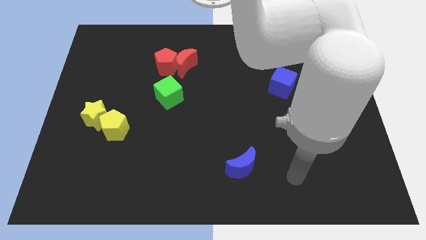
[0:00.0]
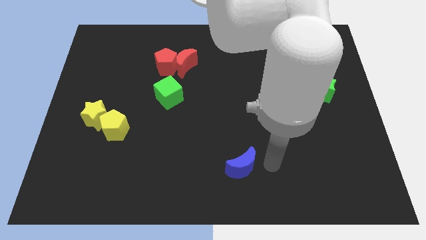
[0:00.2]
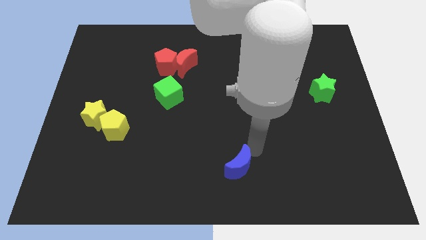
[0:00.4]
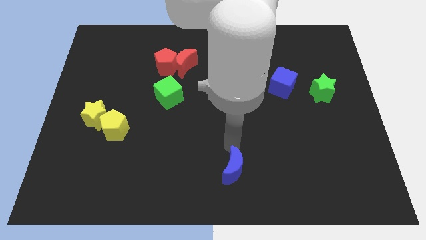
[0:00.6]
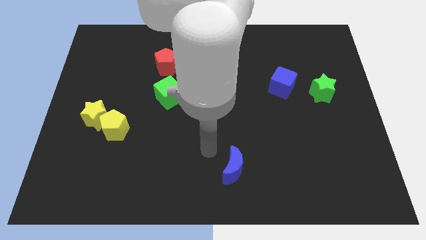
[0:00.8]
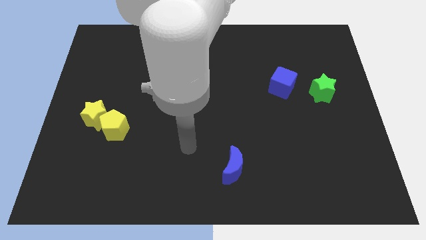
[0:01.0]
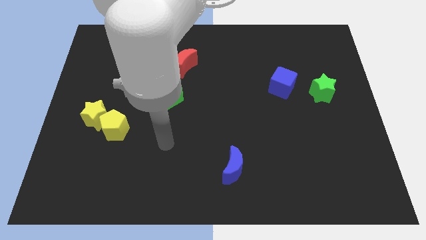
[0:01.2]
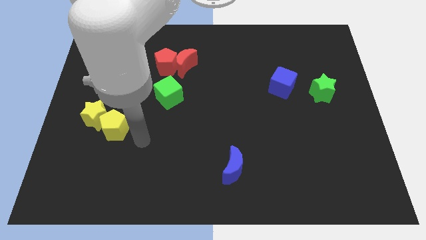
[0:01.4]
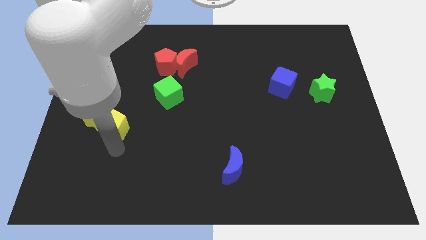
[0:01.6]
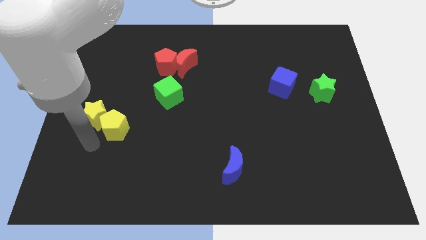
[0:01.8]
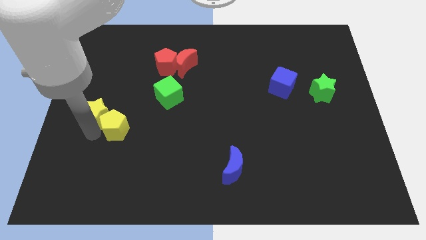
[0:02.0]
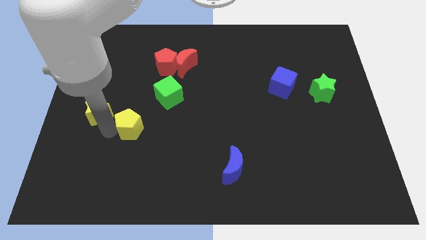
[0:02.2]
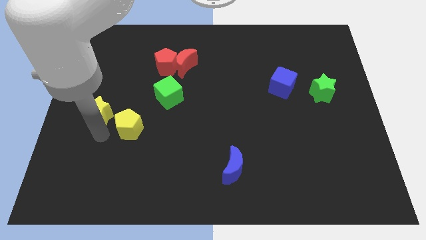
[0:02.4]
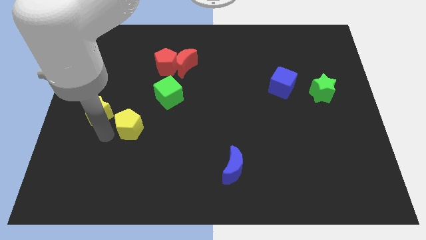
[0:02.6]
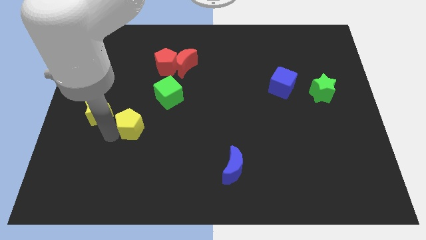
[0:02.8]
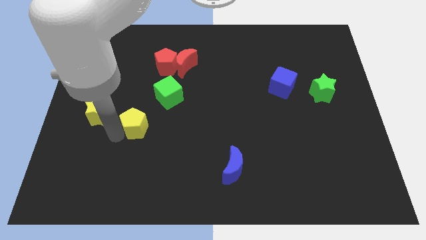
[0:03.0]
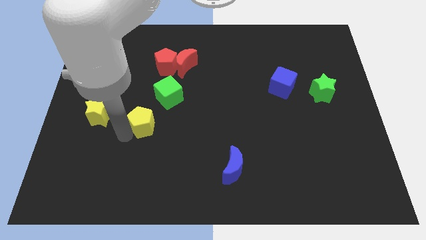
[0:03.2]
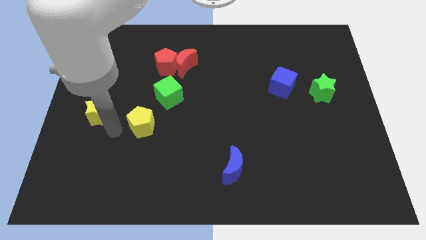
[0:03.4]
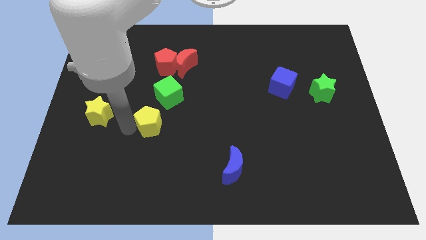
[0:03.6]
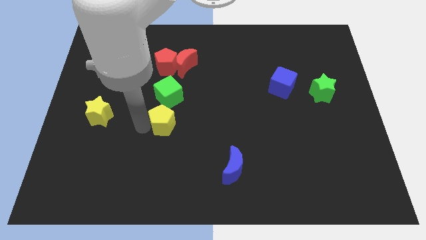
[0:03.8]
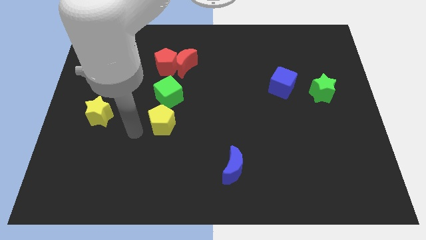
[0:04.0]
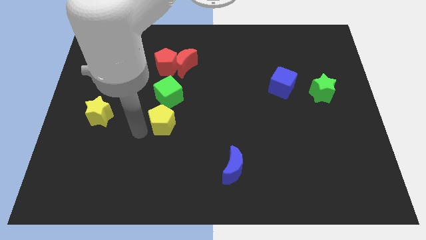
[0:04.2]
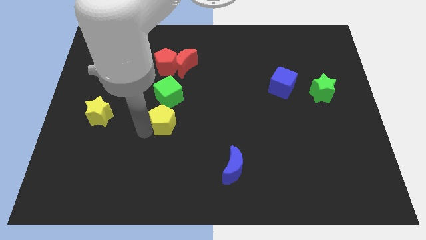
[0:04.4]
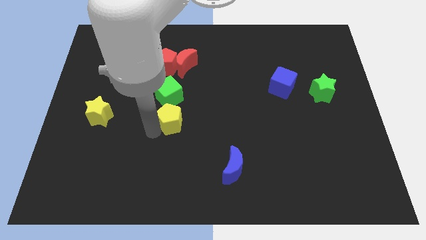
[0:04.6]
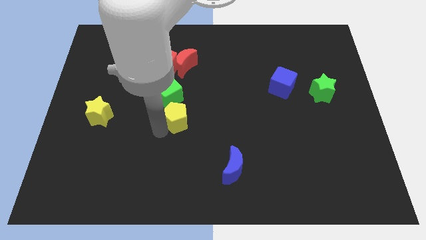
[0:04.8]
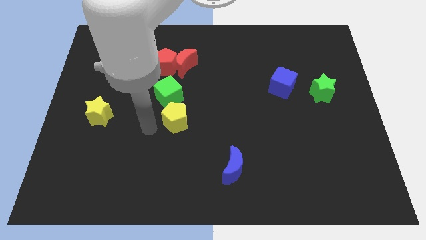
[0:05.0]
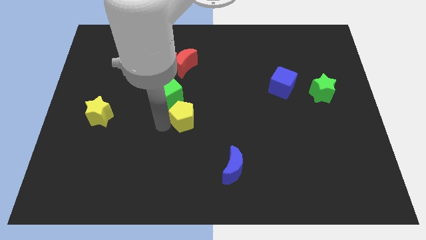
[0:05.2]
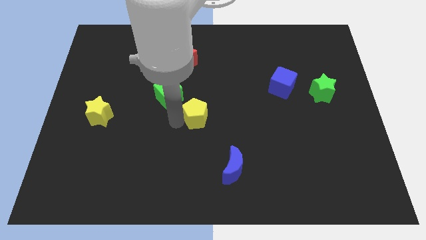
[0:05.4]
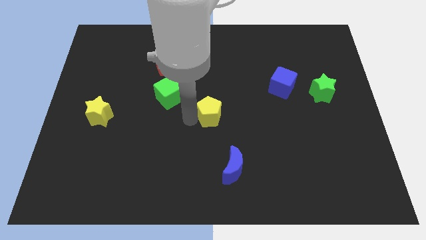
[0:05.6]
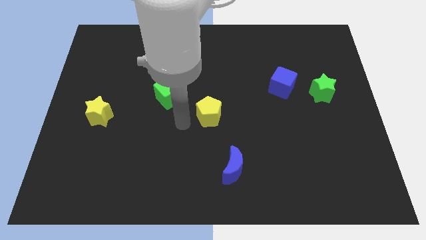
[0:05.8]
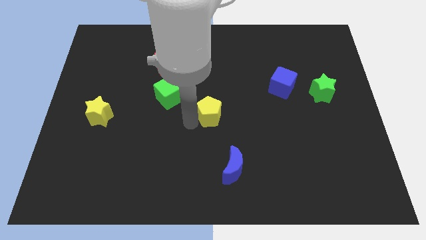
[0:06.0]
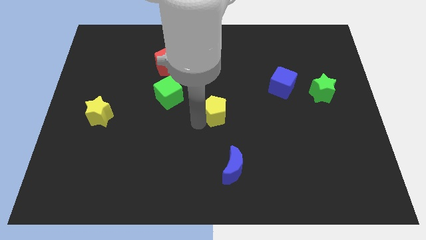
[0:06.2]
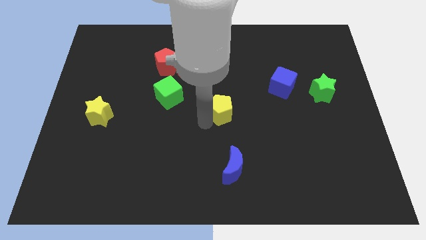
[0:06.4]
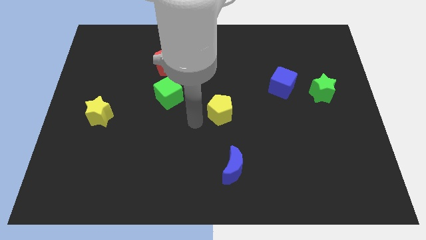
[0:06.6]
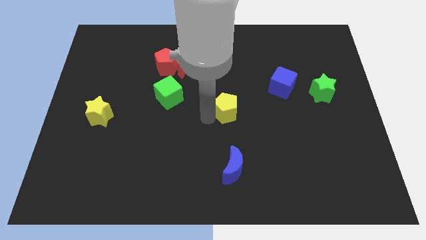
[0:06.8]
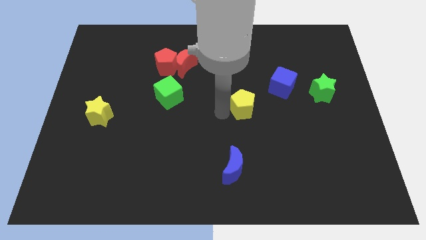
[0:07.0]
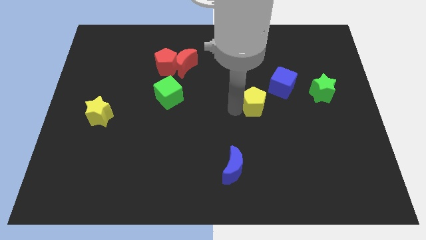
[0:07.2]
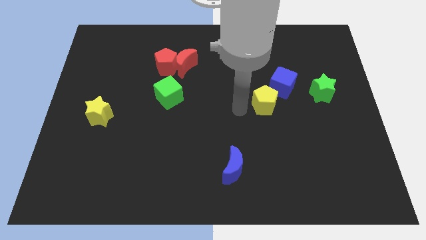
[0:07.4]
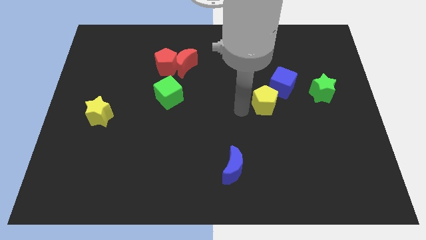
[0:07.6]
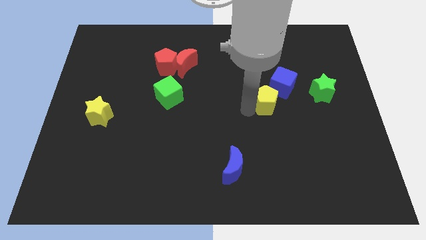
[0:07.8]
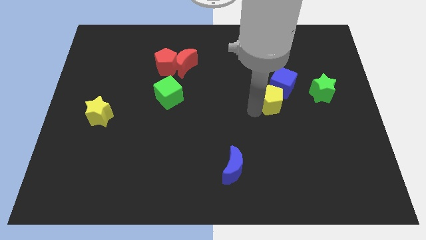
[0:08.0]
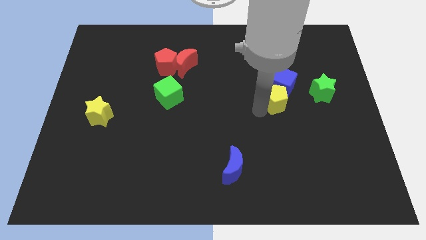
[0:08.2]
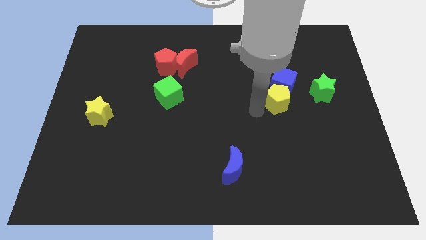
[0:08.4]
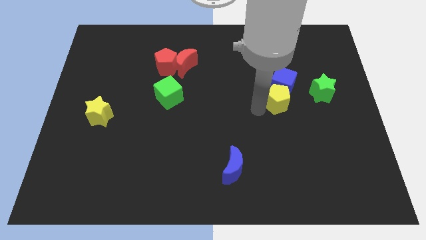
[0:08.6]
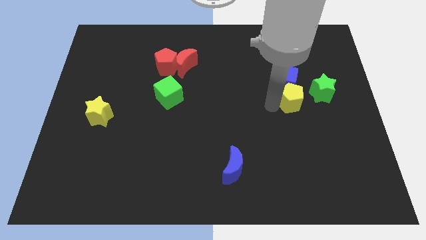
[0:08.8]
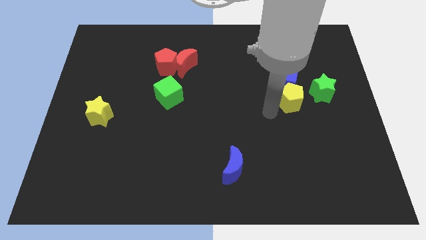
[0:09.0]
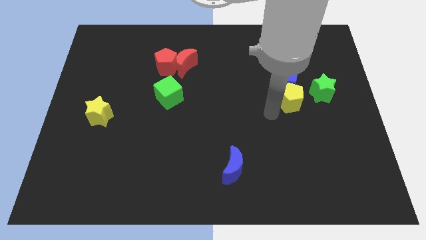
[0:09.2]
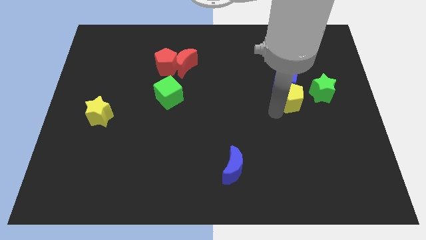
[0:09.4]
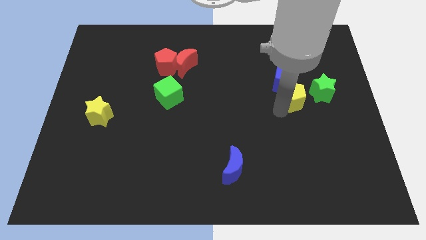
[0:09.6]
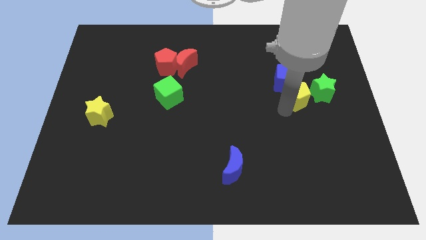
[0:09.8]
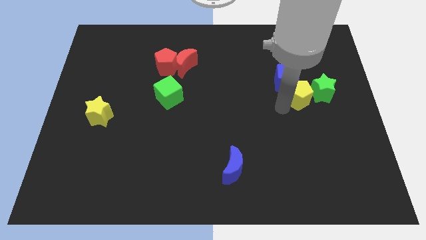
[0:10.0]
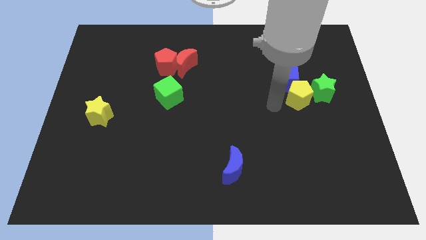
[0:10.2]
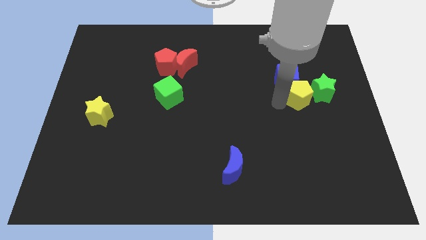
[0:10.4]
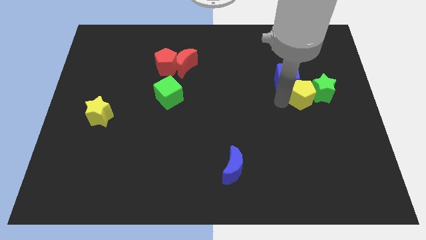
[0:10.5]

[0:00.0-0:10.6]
move the yellow pentagon towards the green star

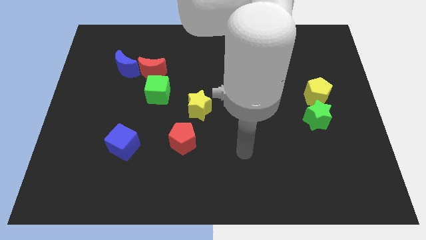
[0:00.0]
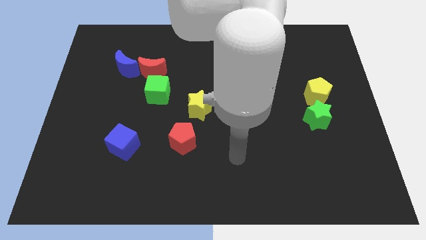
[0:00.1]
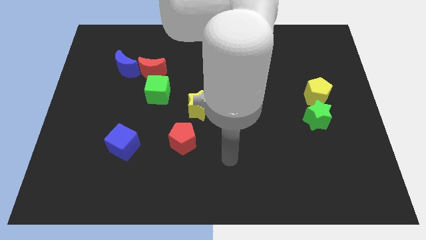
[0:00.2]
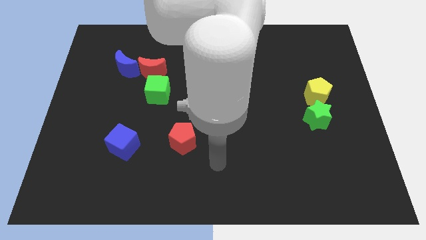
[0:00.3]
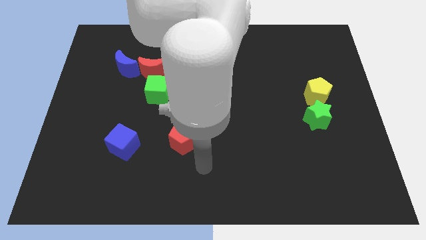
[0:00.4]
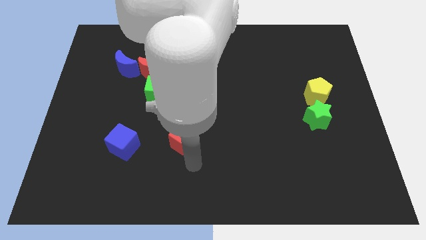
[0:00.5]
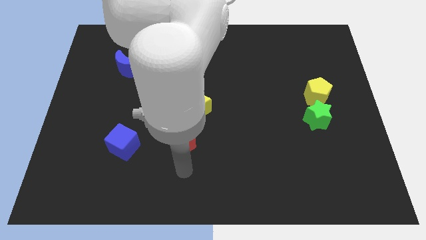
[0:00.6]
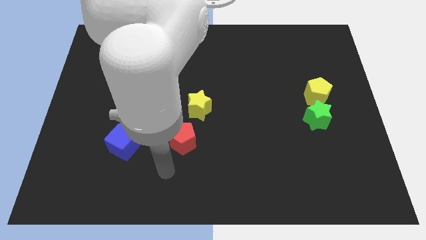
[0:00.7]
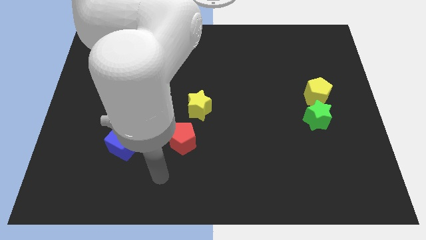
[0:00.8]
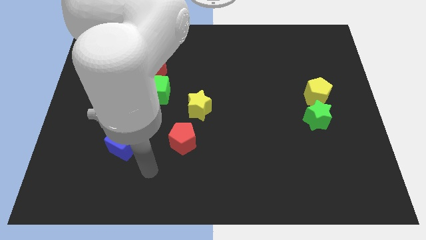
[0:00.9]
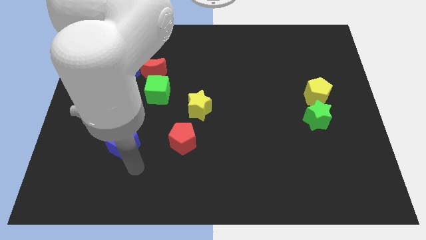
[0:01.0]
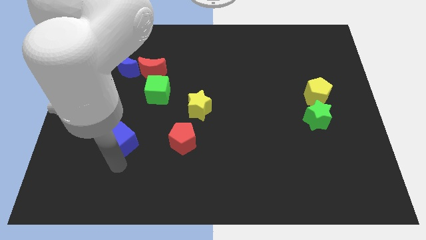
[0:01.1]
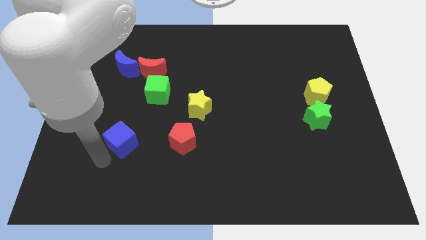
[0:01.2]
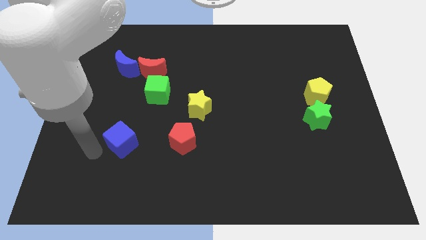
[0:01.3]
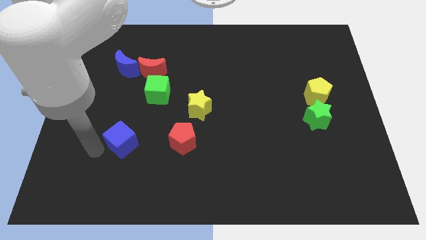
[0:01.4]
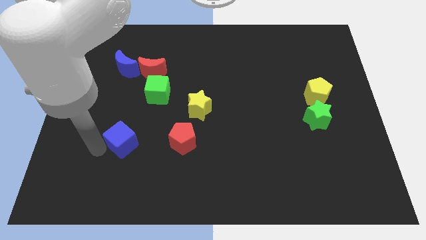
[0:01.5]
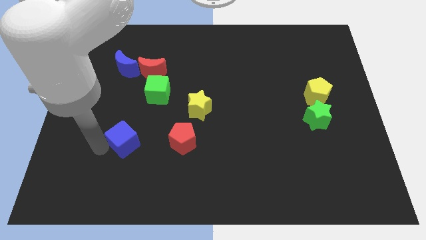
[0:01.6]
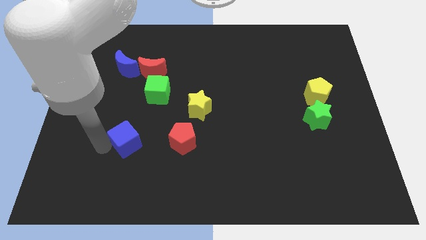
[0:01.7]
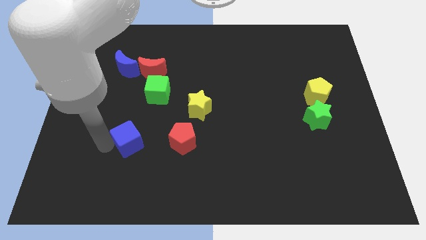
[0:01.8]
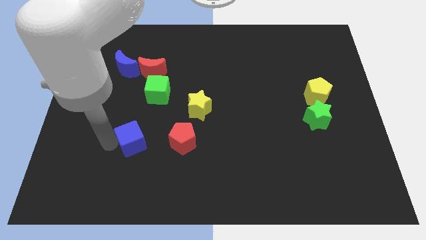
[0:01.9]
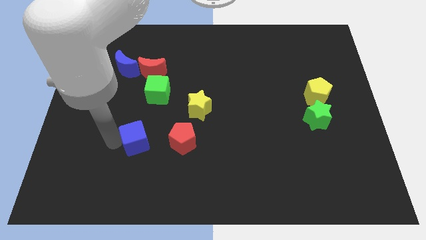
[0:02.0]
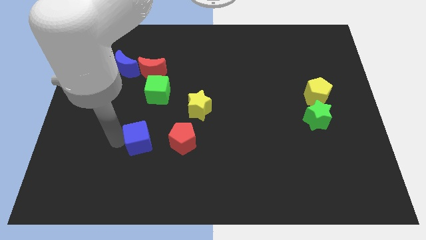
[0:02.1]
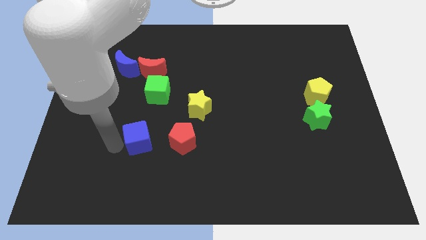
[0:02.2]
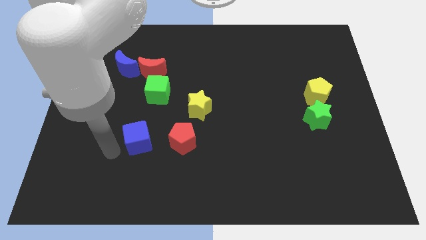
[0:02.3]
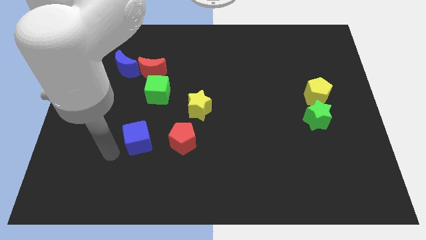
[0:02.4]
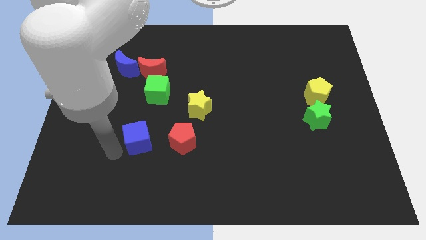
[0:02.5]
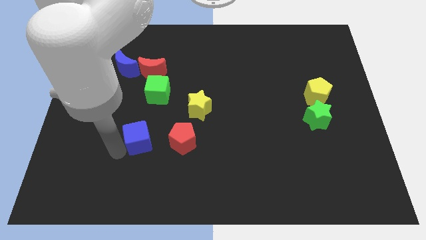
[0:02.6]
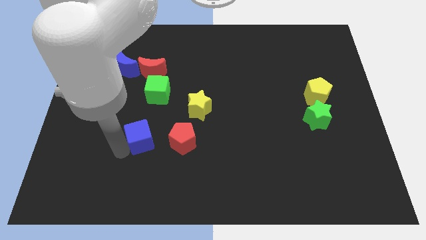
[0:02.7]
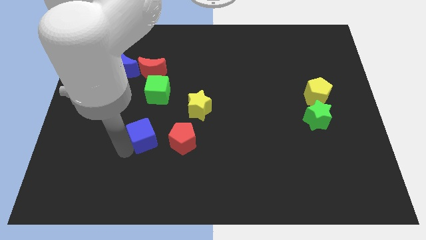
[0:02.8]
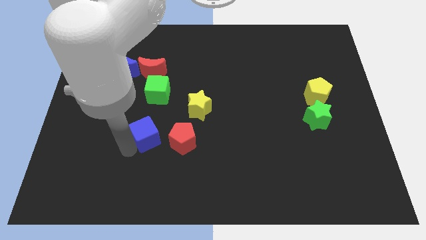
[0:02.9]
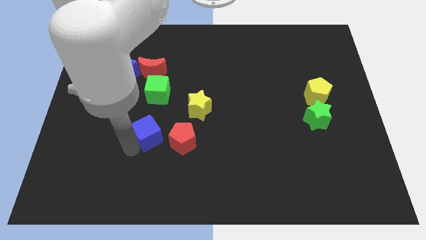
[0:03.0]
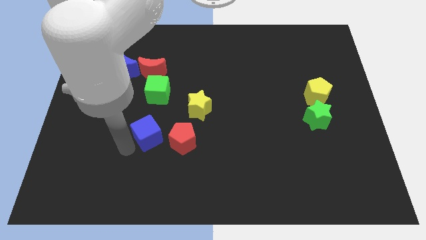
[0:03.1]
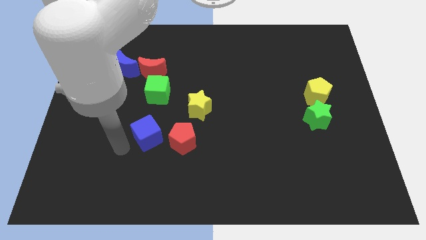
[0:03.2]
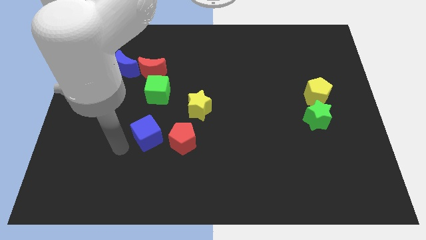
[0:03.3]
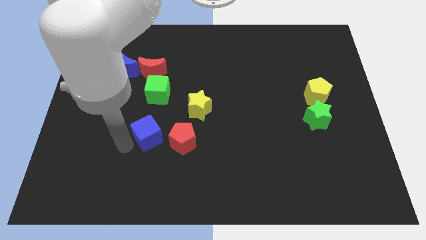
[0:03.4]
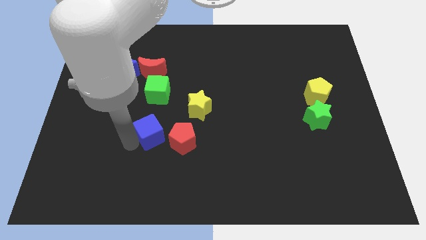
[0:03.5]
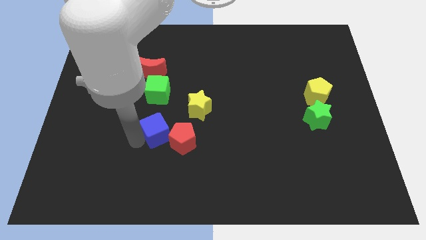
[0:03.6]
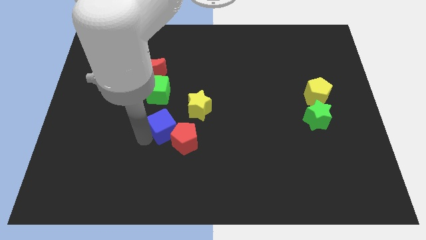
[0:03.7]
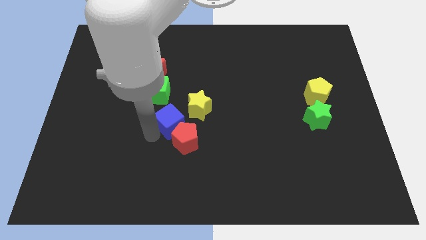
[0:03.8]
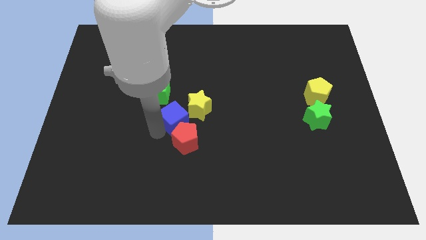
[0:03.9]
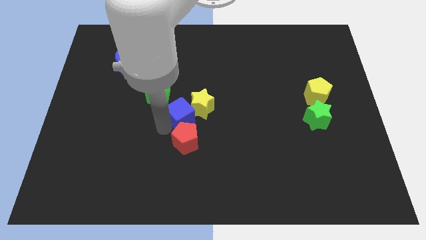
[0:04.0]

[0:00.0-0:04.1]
slide the blue cube close to the yellow star
